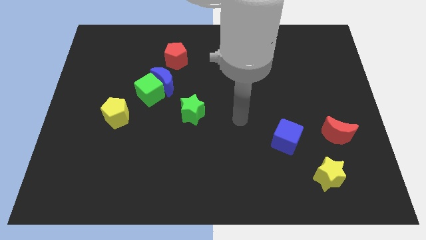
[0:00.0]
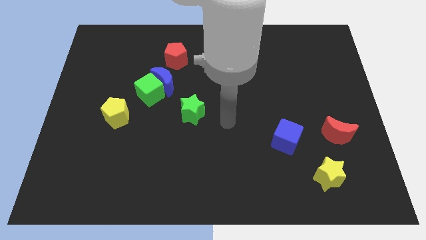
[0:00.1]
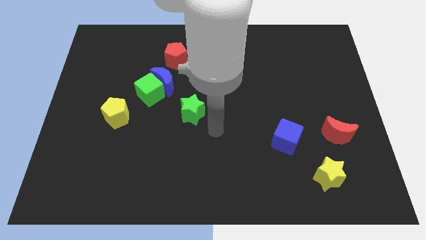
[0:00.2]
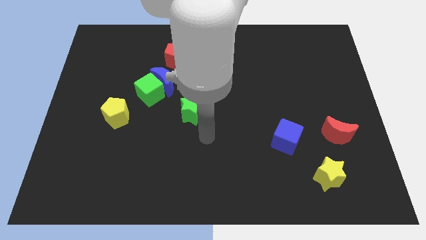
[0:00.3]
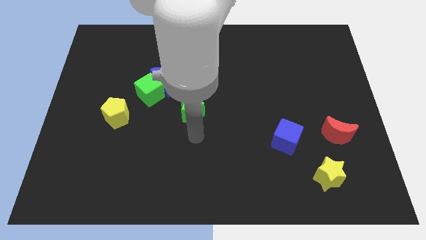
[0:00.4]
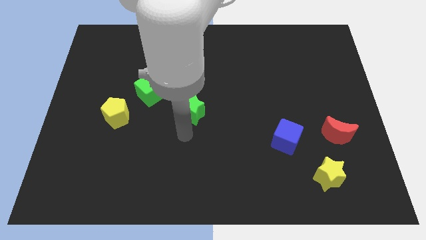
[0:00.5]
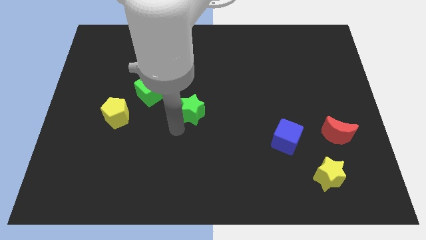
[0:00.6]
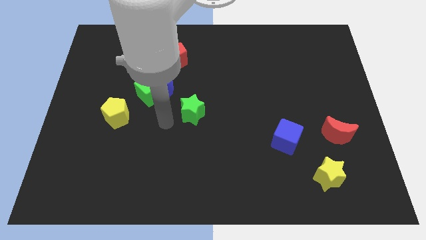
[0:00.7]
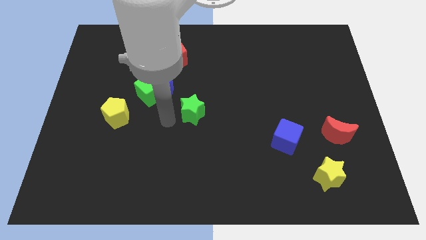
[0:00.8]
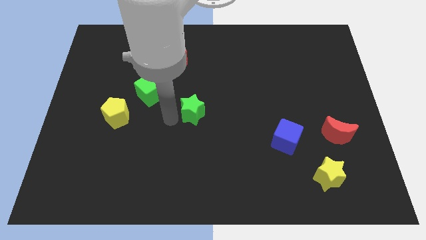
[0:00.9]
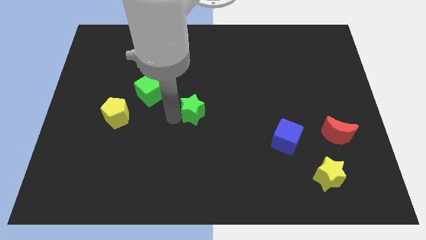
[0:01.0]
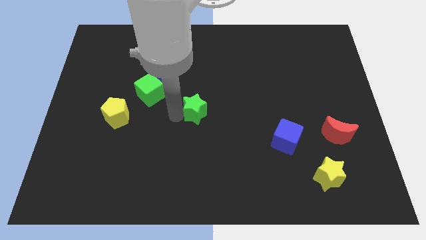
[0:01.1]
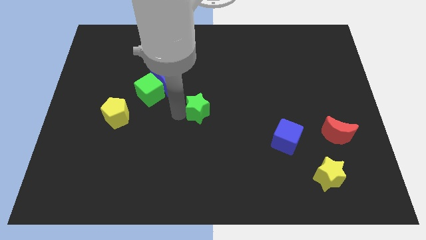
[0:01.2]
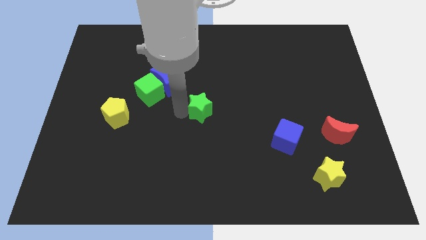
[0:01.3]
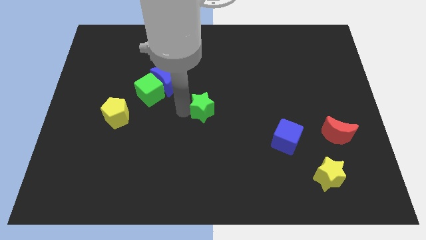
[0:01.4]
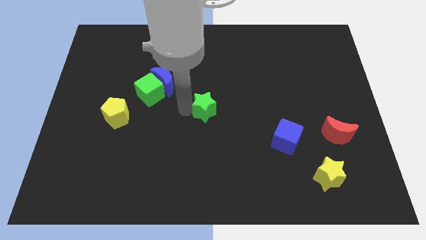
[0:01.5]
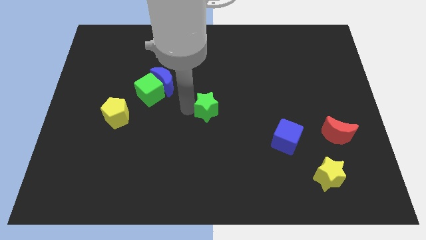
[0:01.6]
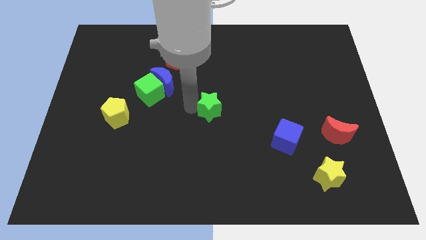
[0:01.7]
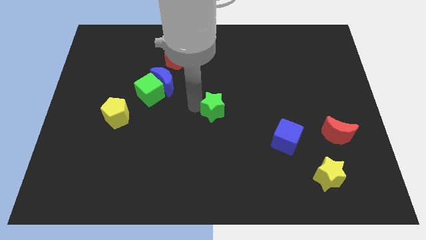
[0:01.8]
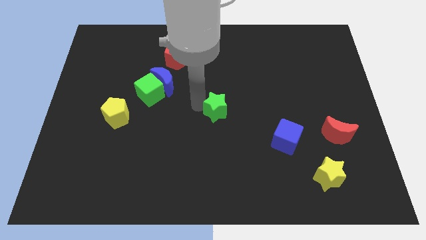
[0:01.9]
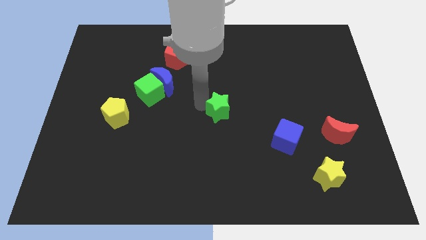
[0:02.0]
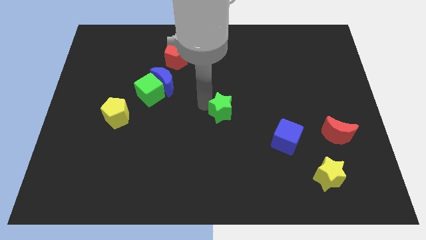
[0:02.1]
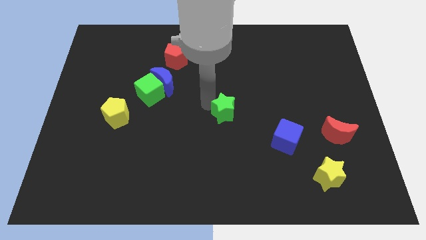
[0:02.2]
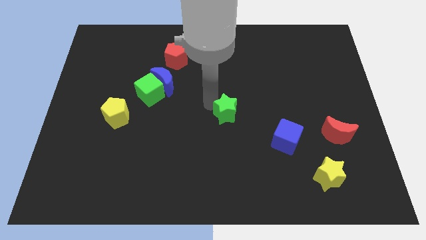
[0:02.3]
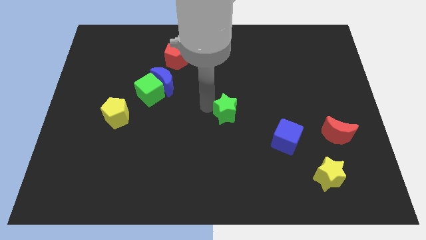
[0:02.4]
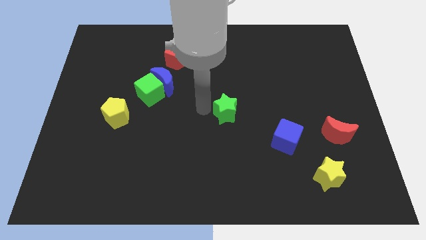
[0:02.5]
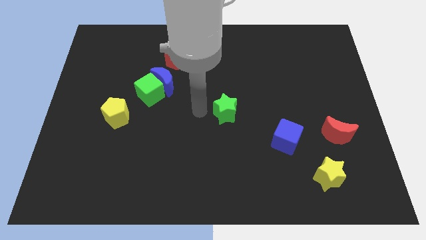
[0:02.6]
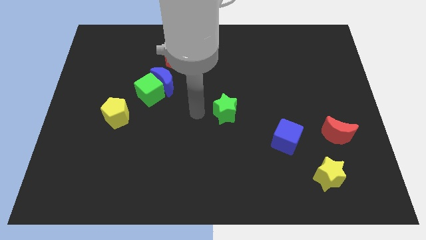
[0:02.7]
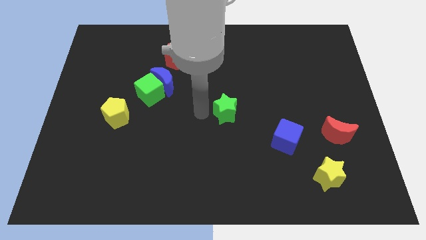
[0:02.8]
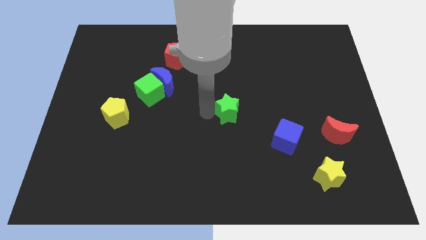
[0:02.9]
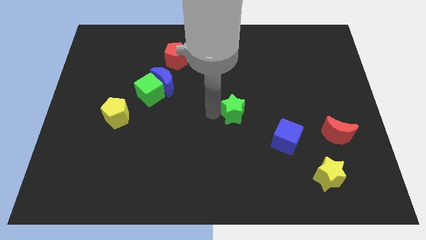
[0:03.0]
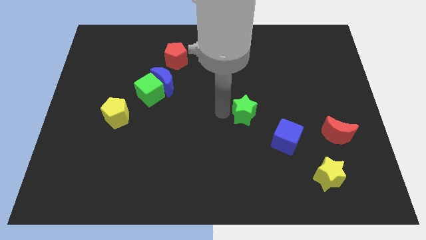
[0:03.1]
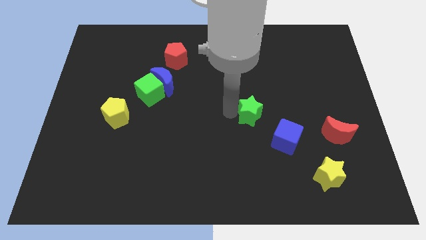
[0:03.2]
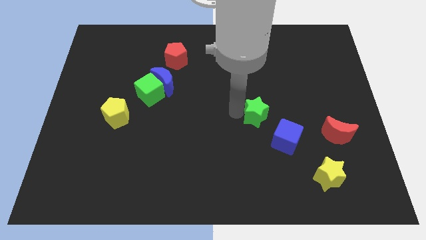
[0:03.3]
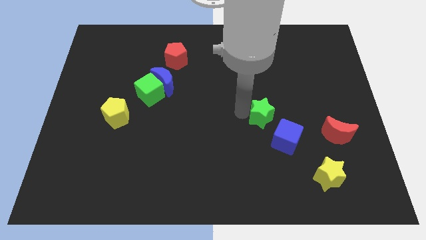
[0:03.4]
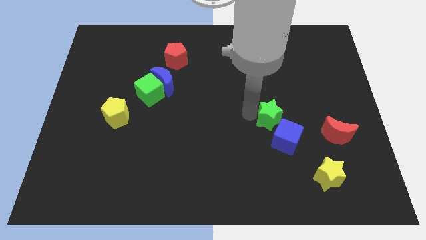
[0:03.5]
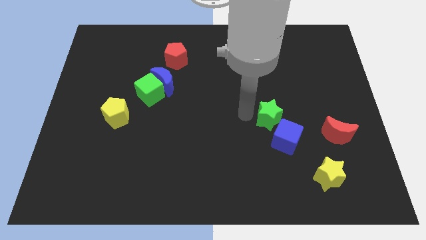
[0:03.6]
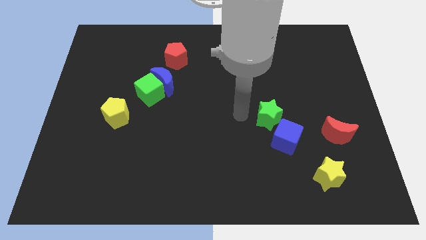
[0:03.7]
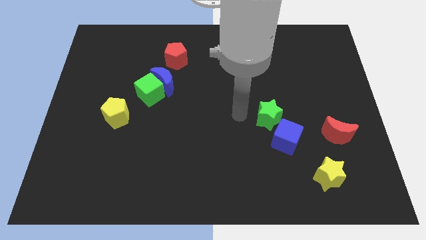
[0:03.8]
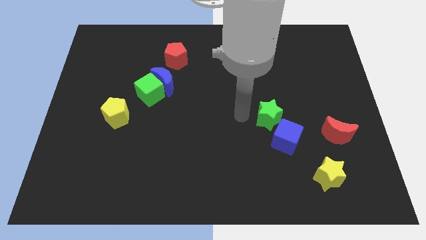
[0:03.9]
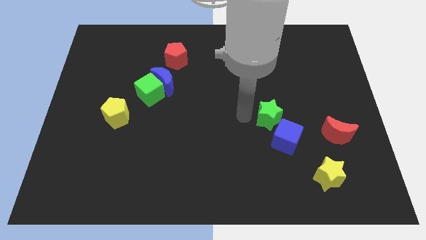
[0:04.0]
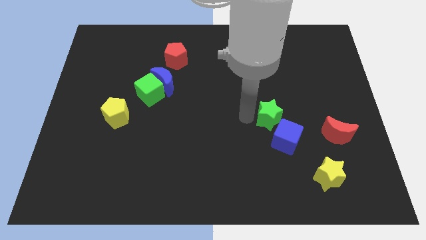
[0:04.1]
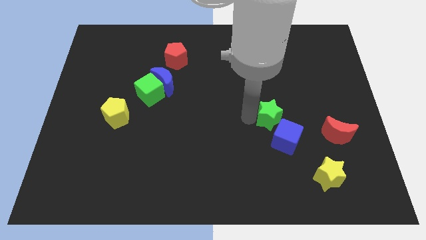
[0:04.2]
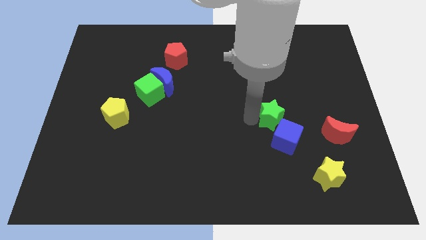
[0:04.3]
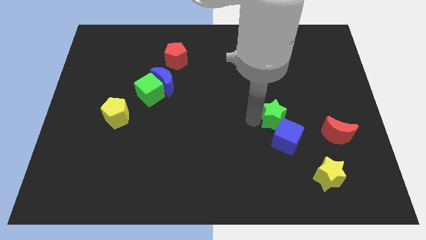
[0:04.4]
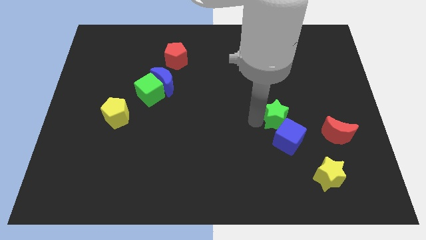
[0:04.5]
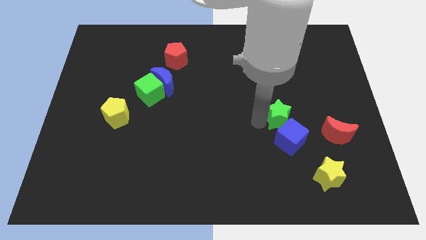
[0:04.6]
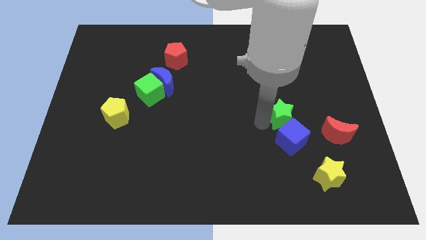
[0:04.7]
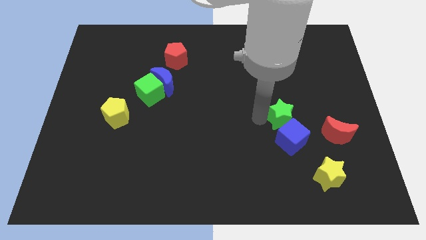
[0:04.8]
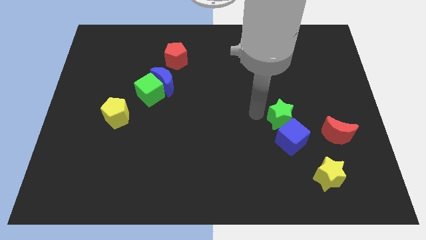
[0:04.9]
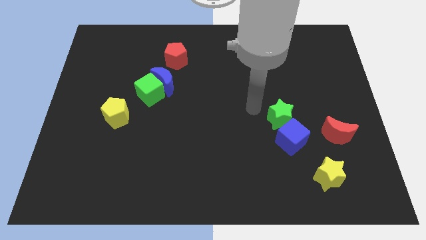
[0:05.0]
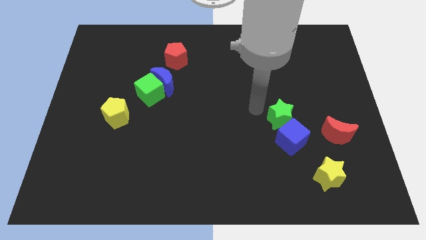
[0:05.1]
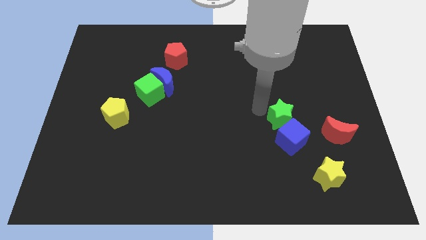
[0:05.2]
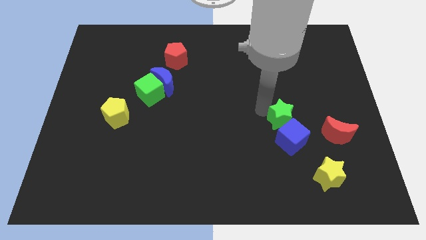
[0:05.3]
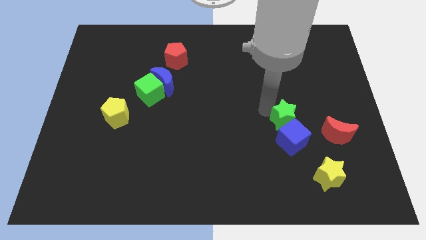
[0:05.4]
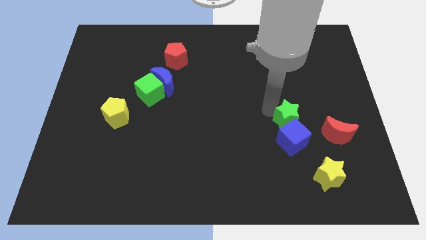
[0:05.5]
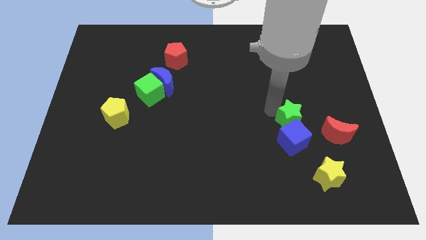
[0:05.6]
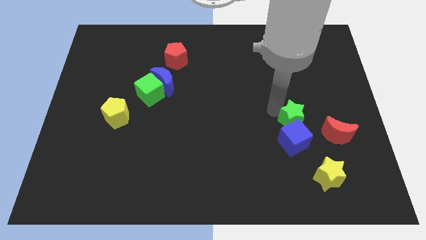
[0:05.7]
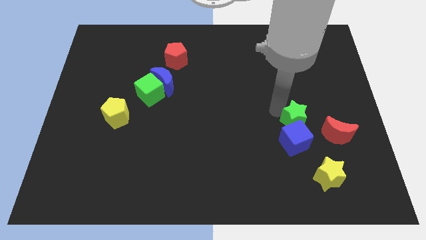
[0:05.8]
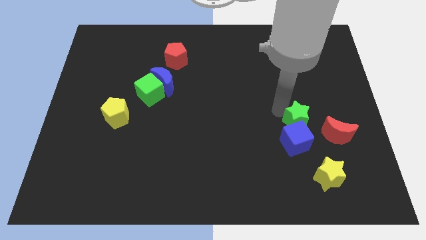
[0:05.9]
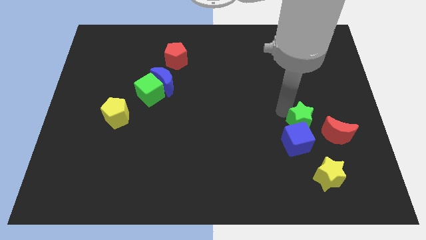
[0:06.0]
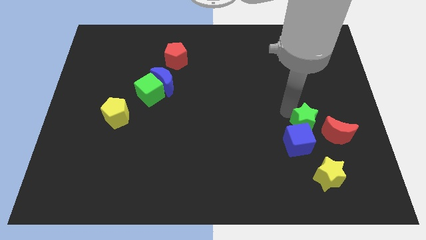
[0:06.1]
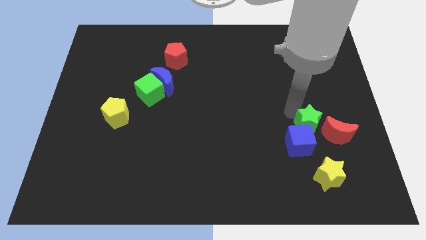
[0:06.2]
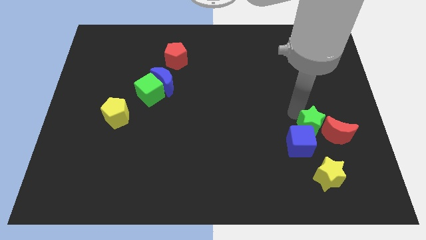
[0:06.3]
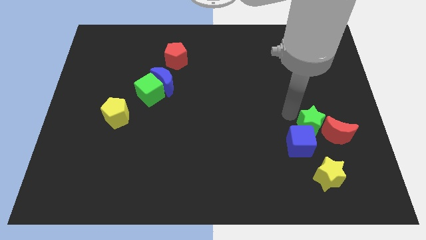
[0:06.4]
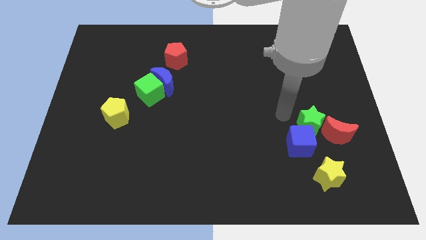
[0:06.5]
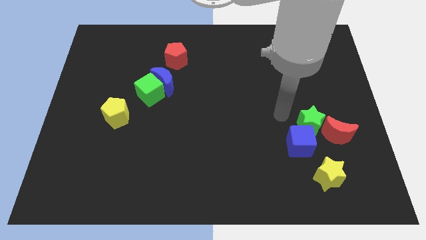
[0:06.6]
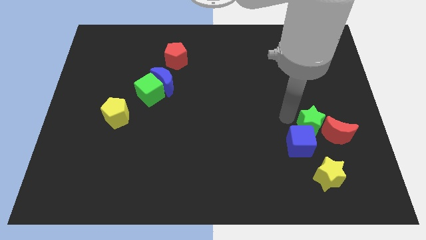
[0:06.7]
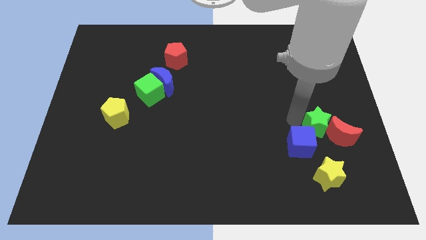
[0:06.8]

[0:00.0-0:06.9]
move the green star next to the red moon

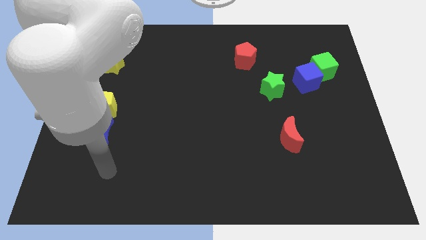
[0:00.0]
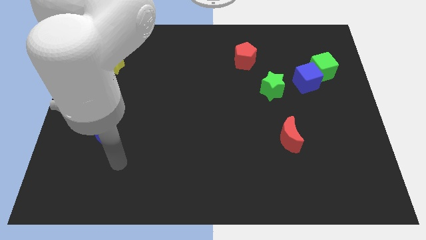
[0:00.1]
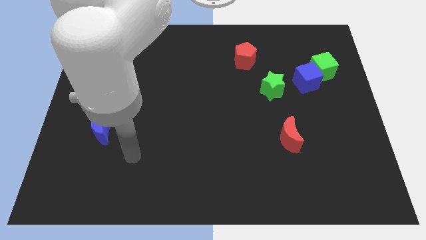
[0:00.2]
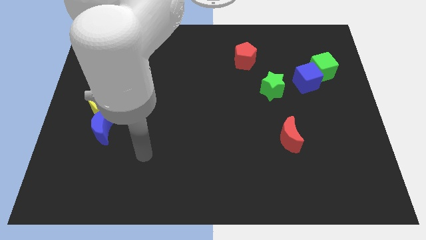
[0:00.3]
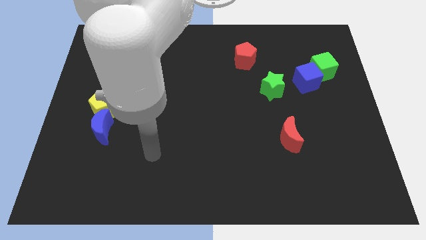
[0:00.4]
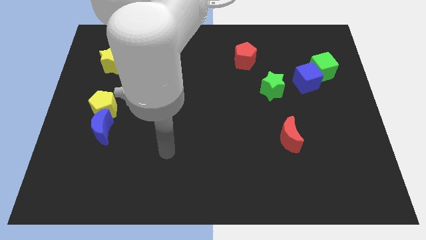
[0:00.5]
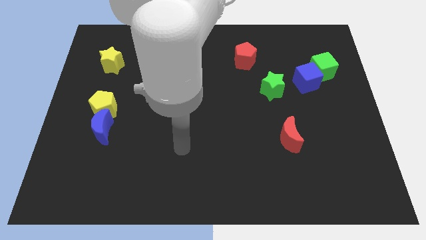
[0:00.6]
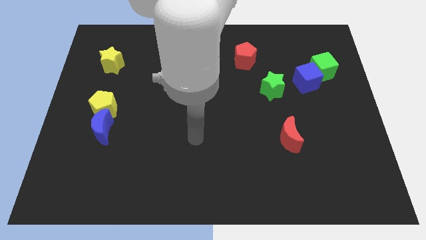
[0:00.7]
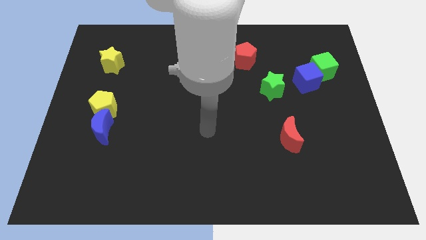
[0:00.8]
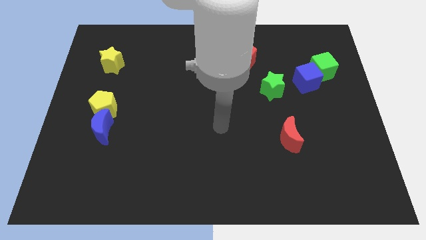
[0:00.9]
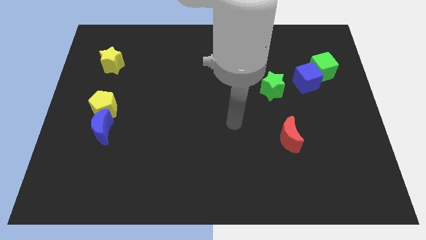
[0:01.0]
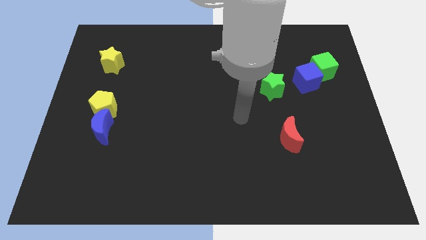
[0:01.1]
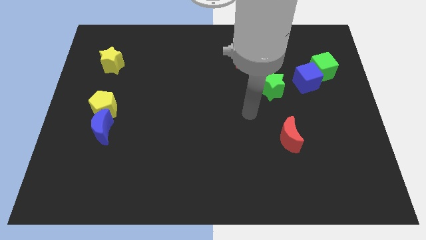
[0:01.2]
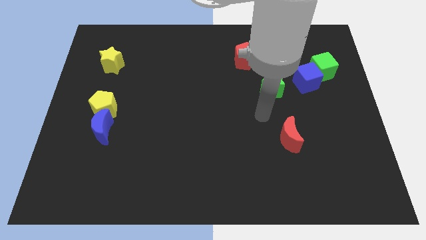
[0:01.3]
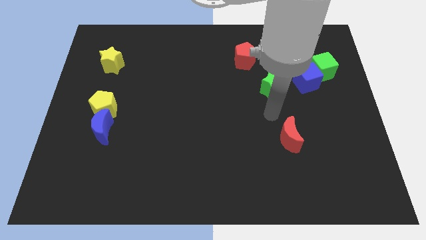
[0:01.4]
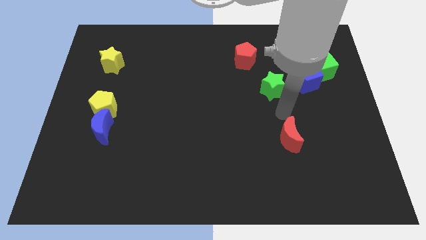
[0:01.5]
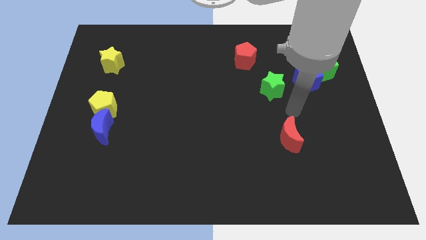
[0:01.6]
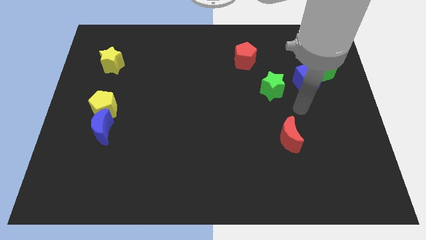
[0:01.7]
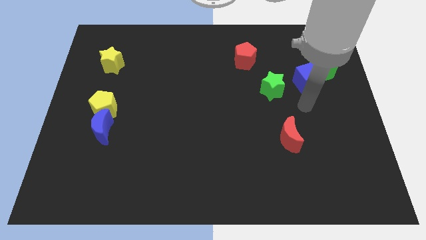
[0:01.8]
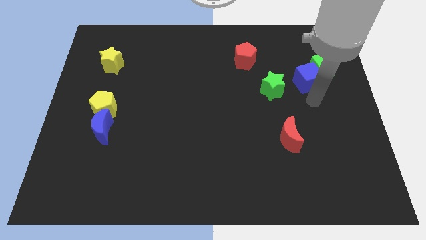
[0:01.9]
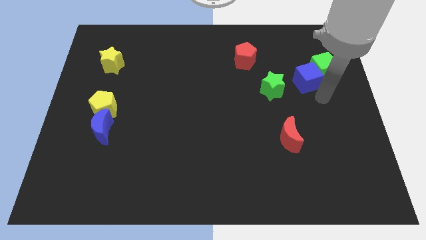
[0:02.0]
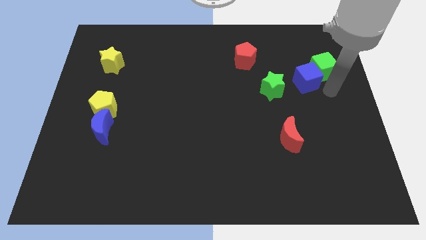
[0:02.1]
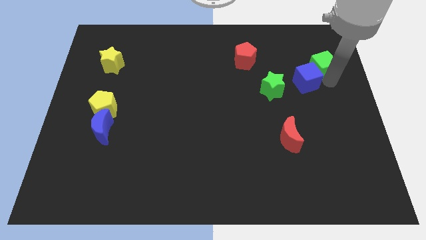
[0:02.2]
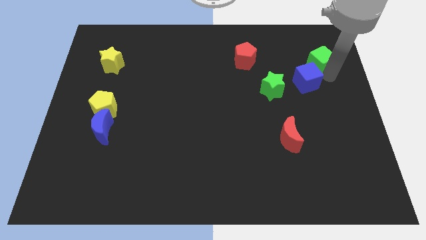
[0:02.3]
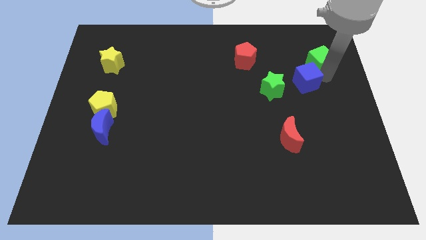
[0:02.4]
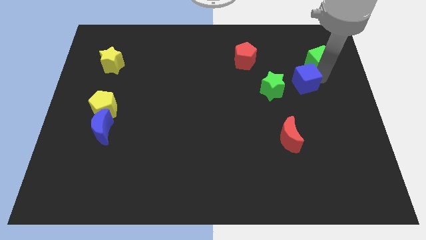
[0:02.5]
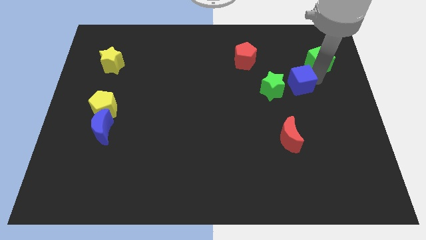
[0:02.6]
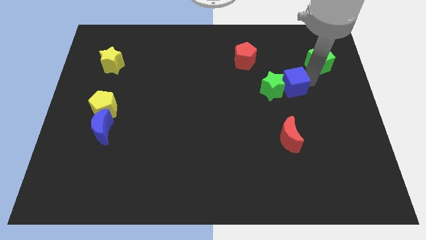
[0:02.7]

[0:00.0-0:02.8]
move the blue cube towards the green star
